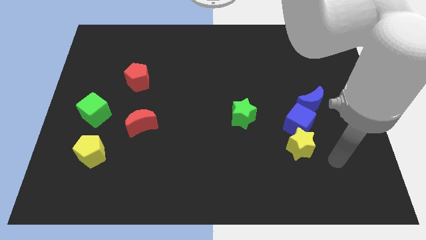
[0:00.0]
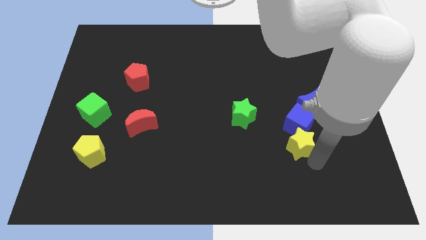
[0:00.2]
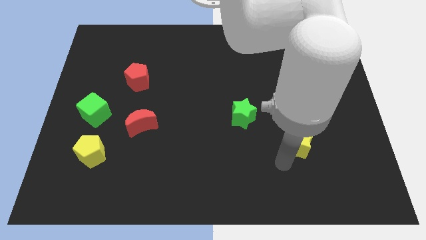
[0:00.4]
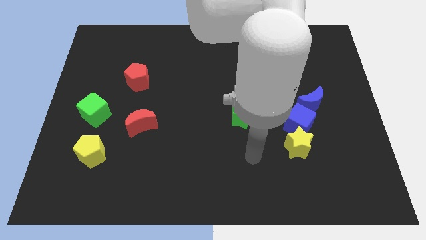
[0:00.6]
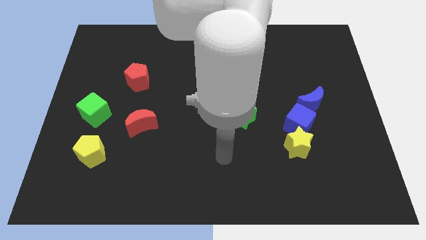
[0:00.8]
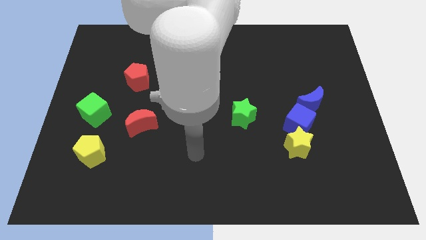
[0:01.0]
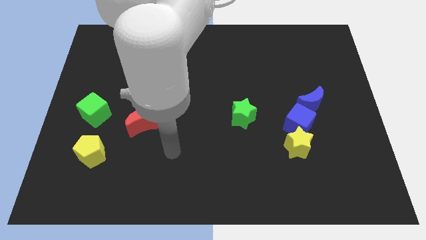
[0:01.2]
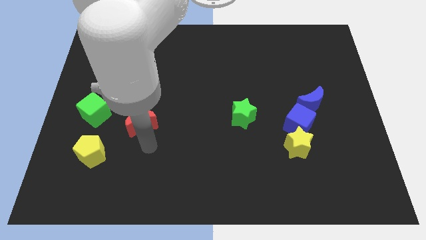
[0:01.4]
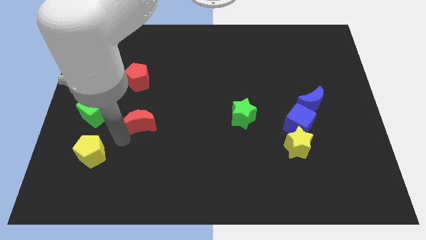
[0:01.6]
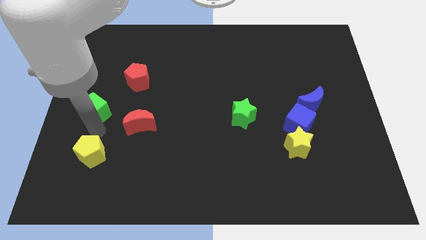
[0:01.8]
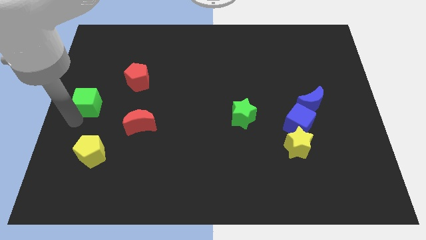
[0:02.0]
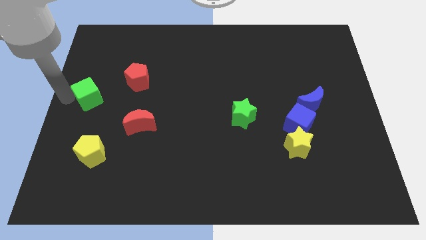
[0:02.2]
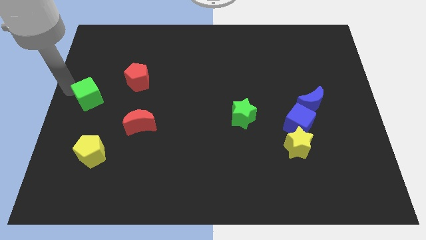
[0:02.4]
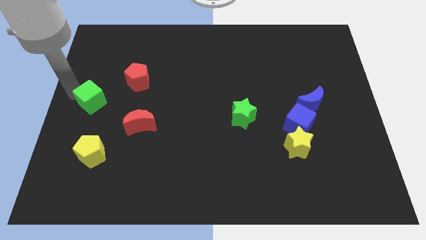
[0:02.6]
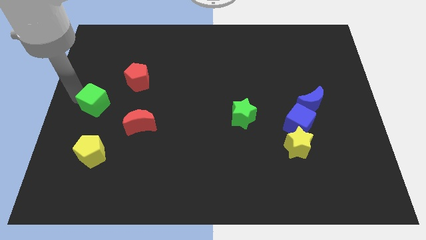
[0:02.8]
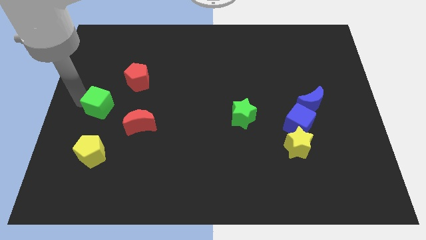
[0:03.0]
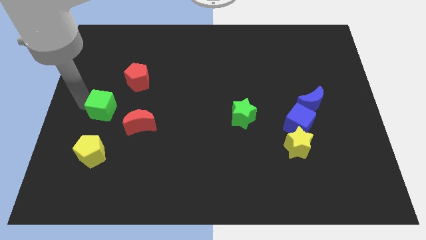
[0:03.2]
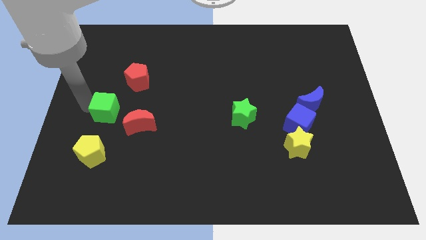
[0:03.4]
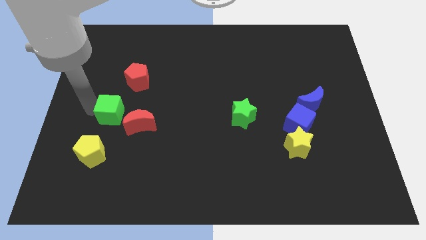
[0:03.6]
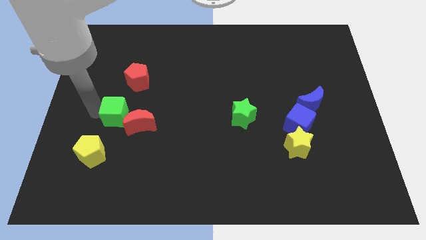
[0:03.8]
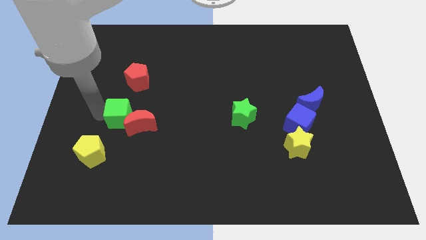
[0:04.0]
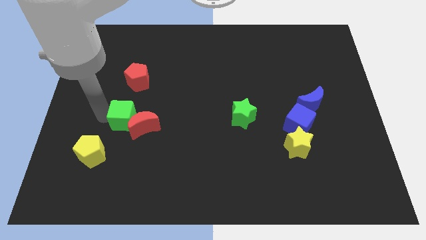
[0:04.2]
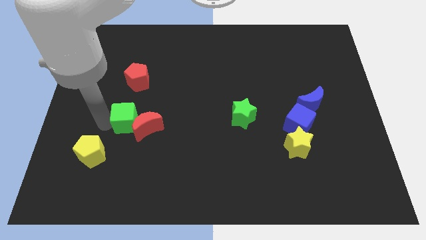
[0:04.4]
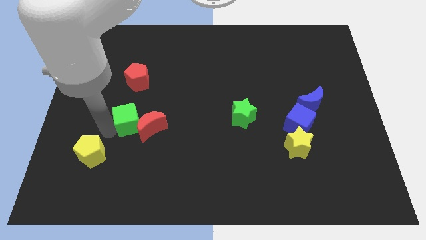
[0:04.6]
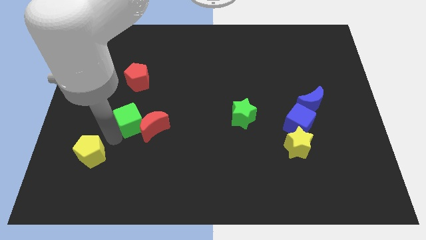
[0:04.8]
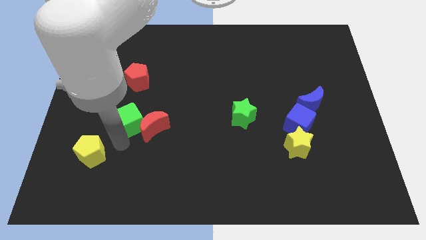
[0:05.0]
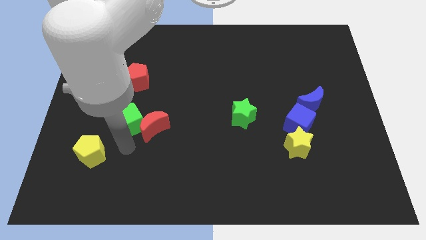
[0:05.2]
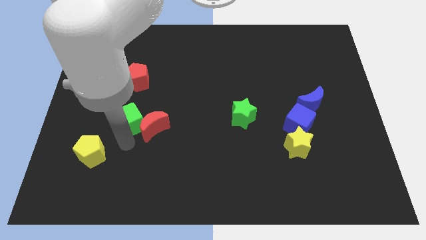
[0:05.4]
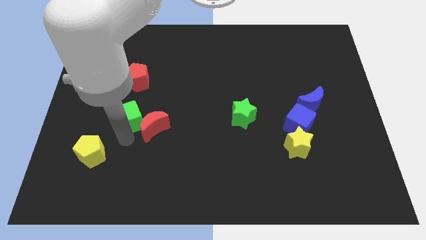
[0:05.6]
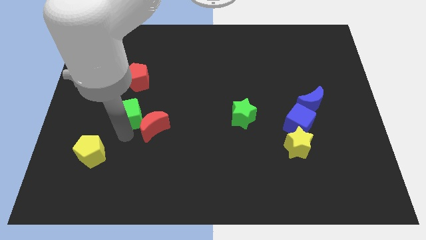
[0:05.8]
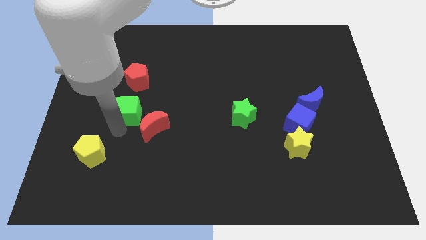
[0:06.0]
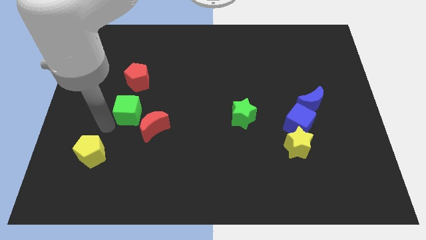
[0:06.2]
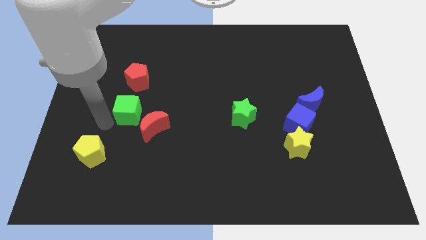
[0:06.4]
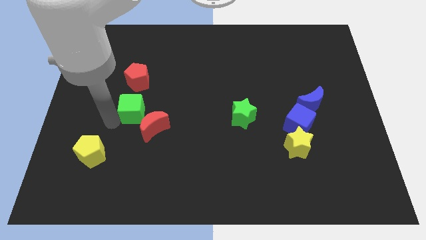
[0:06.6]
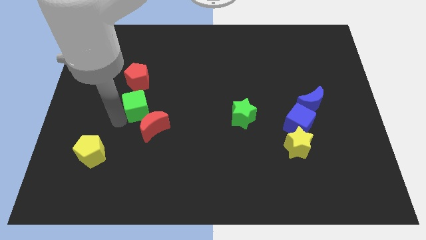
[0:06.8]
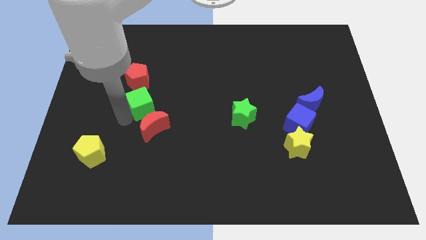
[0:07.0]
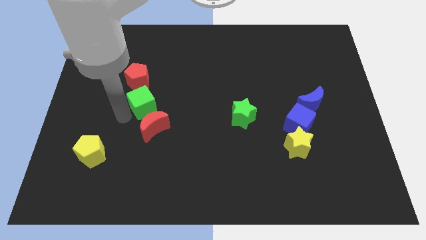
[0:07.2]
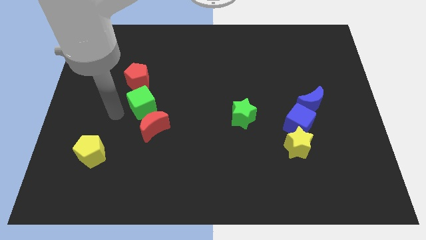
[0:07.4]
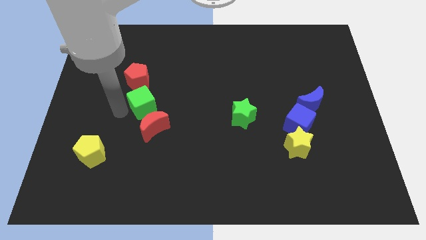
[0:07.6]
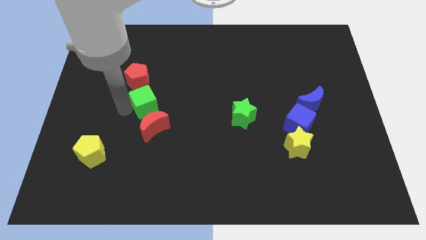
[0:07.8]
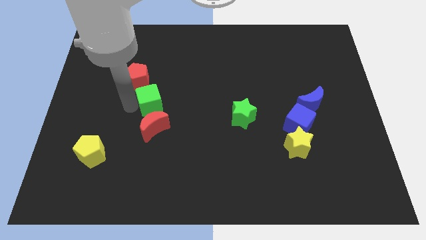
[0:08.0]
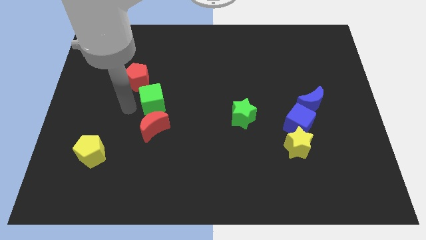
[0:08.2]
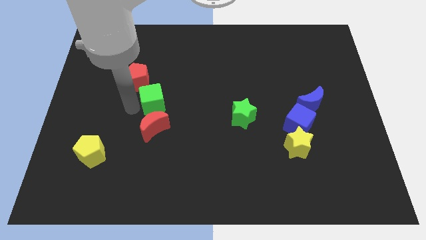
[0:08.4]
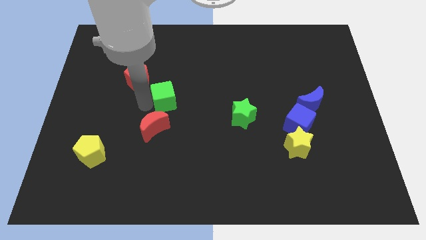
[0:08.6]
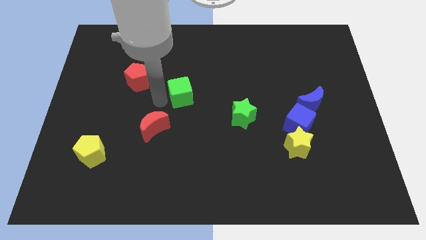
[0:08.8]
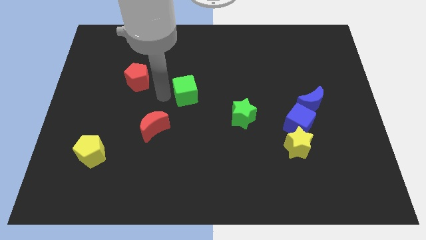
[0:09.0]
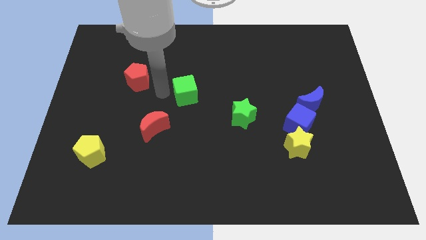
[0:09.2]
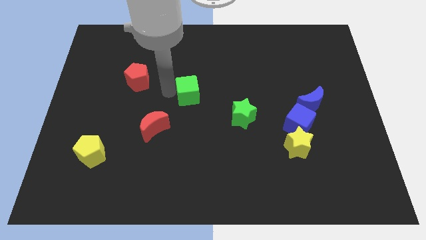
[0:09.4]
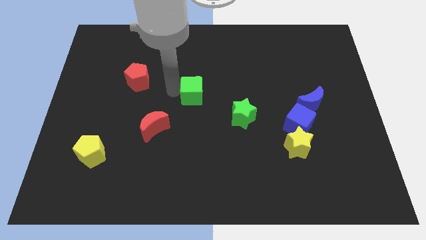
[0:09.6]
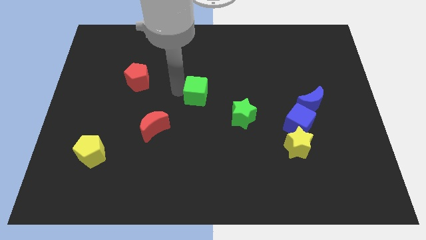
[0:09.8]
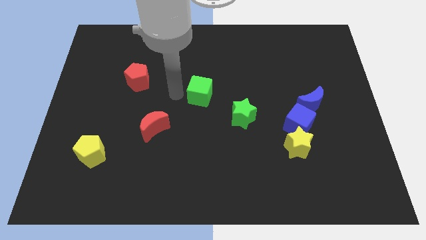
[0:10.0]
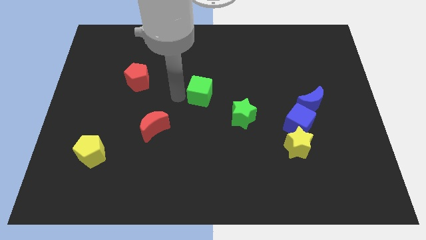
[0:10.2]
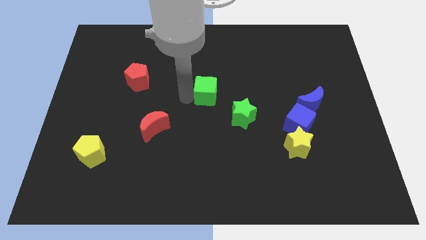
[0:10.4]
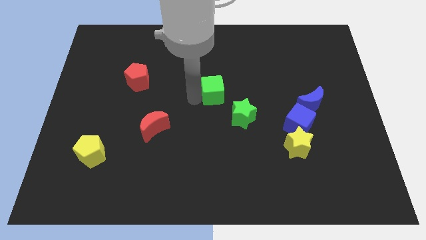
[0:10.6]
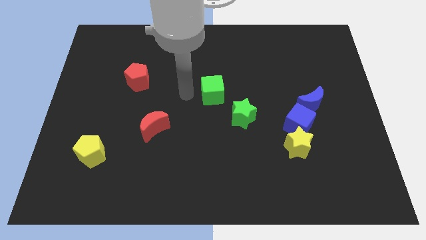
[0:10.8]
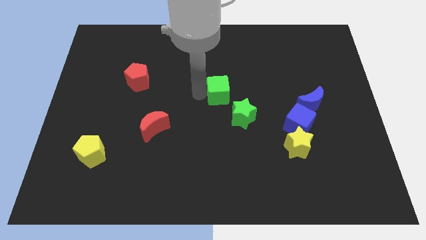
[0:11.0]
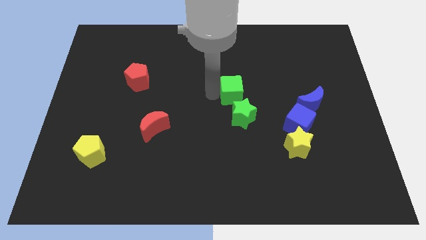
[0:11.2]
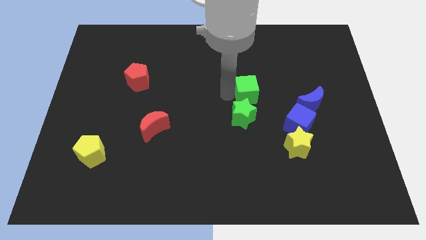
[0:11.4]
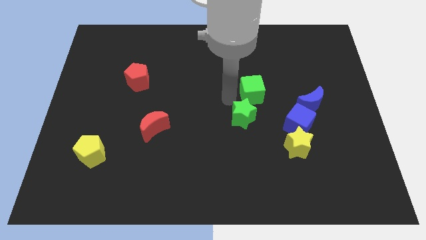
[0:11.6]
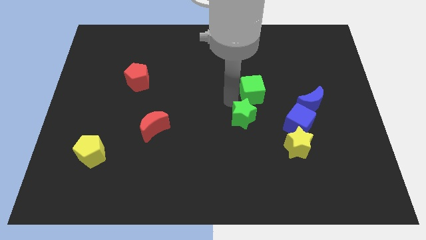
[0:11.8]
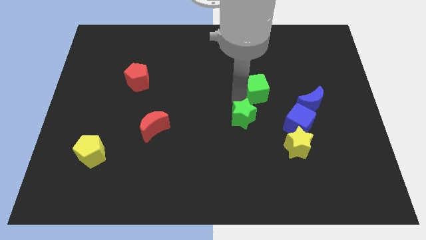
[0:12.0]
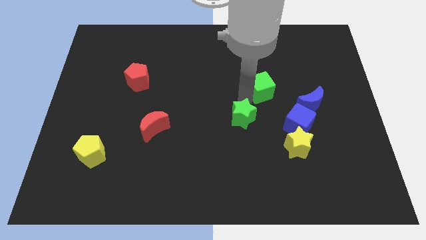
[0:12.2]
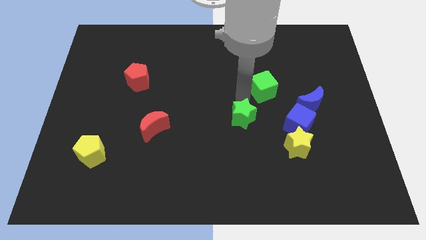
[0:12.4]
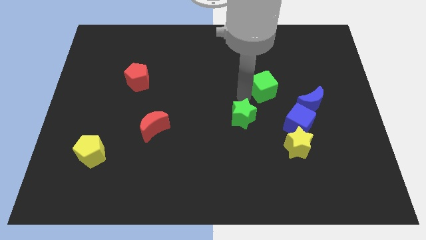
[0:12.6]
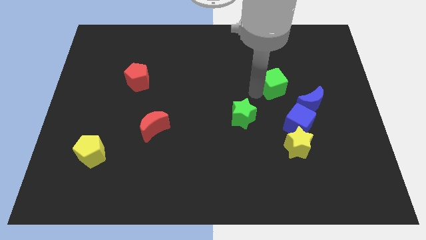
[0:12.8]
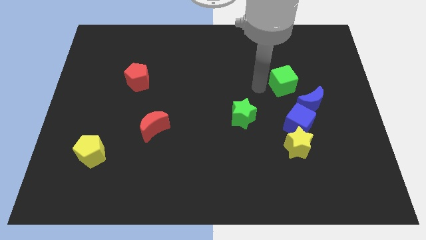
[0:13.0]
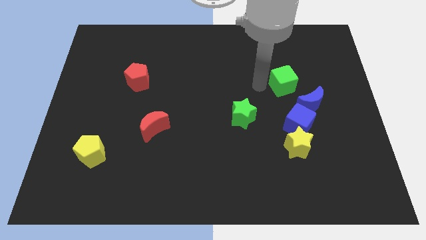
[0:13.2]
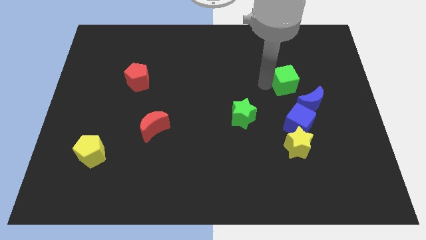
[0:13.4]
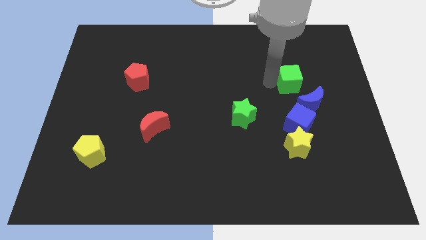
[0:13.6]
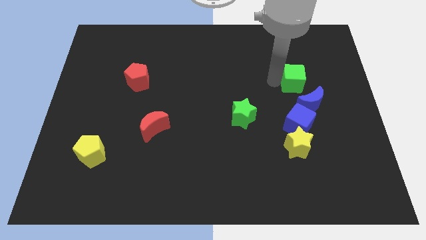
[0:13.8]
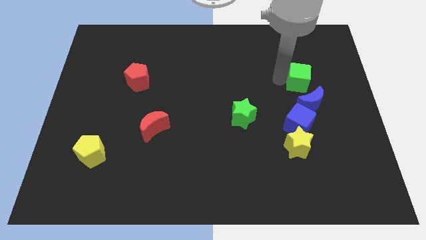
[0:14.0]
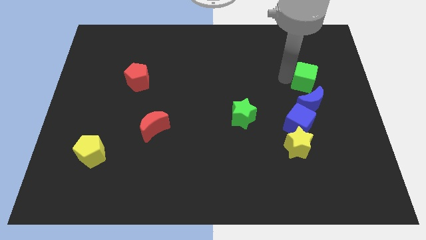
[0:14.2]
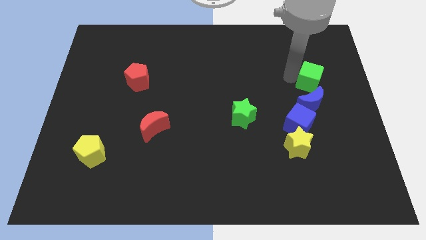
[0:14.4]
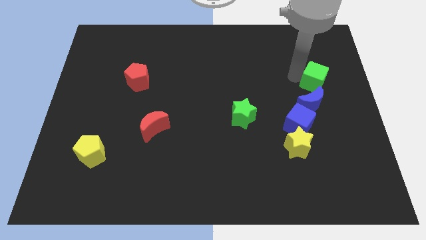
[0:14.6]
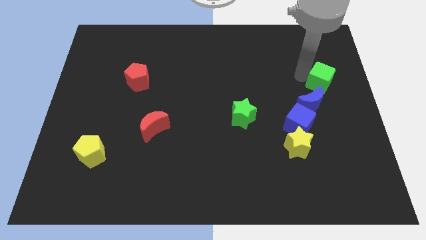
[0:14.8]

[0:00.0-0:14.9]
push the green cube to the right side of the board
